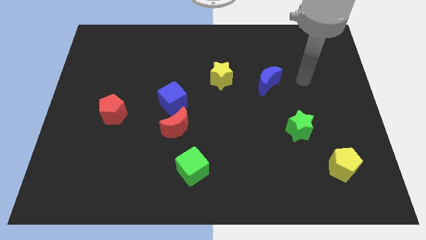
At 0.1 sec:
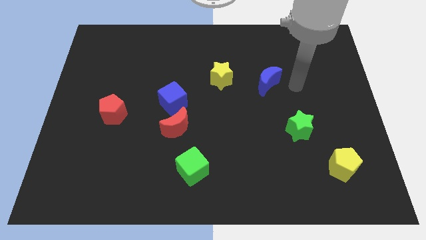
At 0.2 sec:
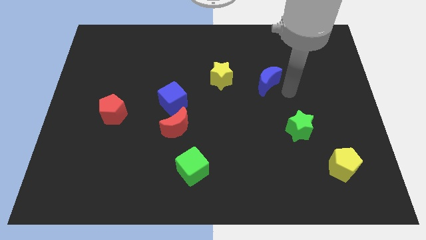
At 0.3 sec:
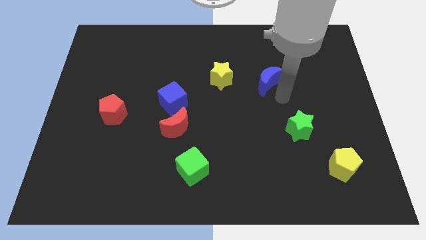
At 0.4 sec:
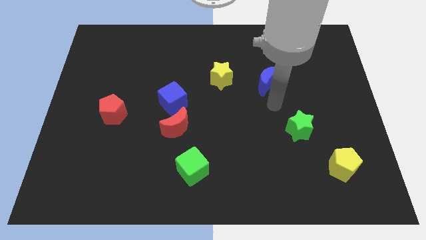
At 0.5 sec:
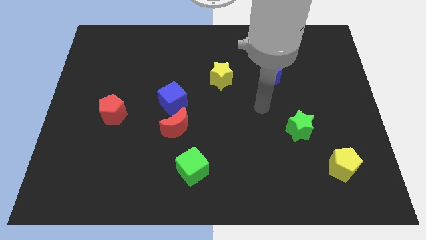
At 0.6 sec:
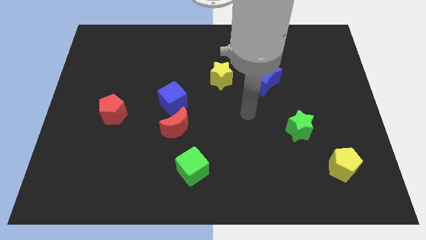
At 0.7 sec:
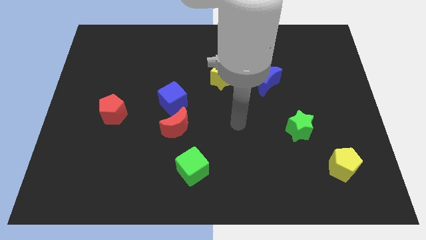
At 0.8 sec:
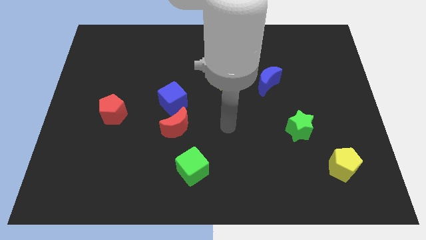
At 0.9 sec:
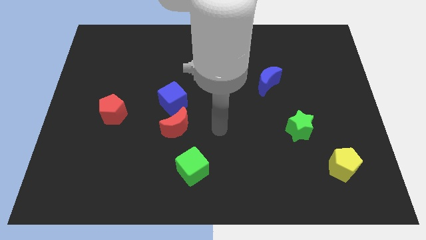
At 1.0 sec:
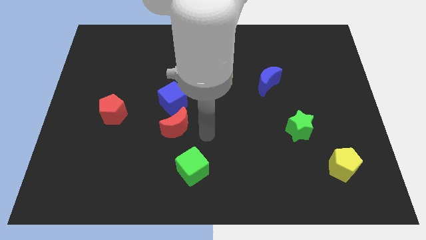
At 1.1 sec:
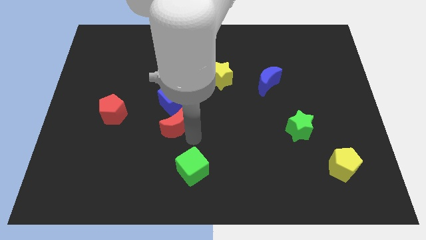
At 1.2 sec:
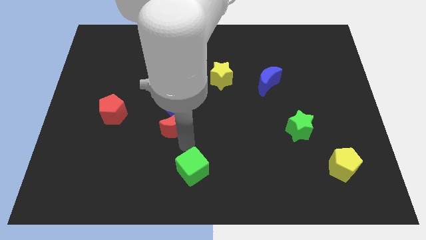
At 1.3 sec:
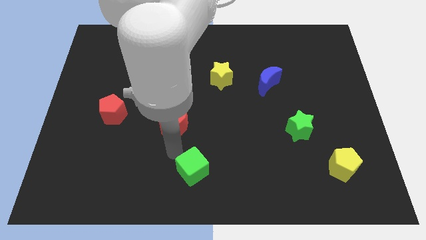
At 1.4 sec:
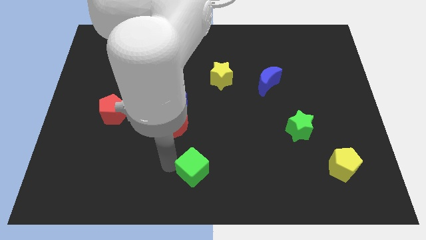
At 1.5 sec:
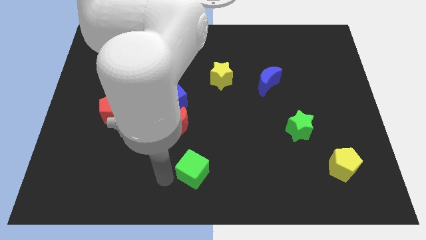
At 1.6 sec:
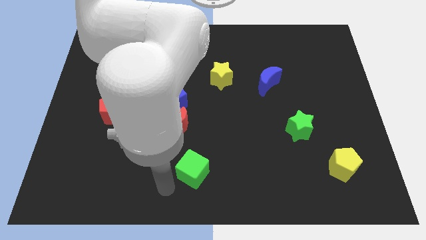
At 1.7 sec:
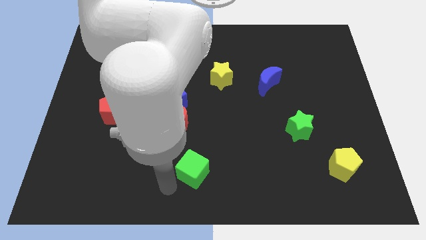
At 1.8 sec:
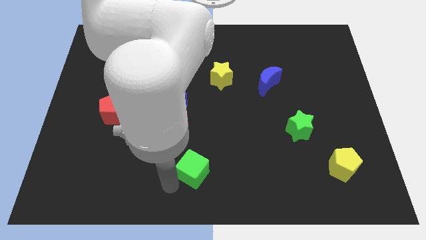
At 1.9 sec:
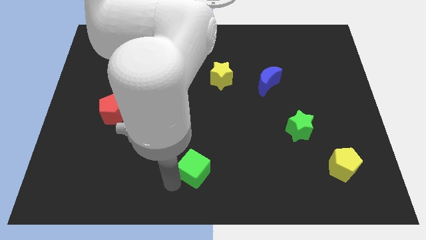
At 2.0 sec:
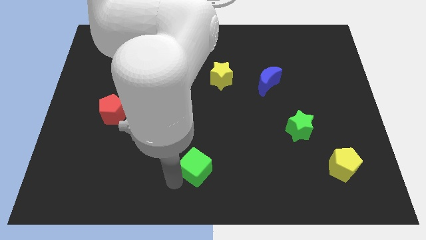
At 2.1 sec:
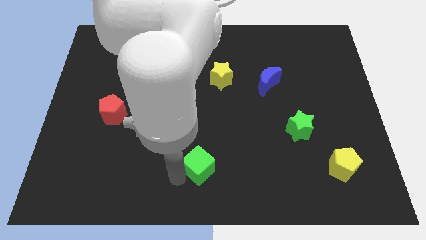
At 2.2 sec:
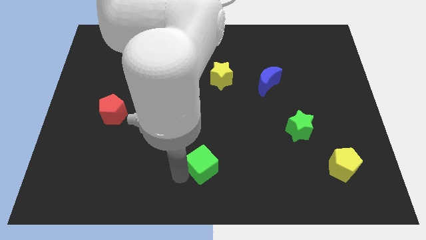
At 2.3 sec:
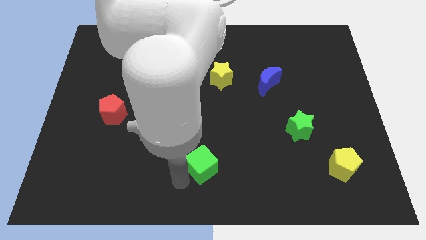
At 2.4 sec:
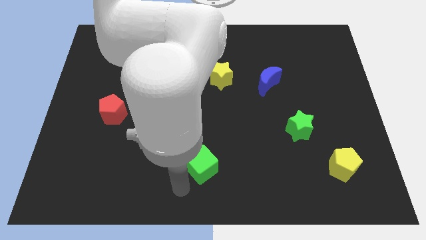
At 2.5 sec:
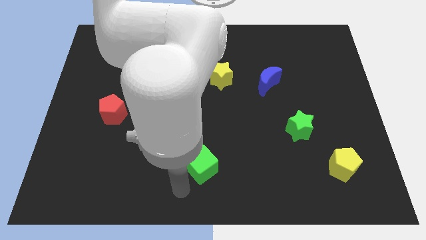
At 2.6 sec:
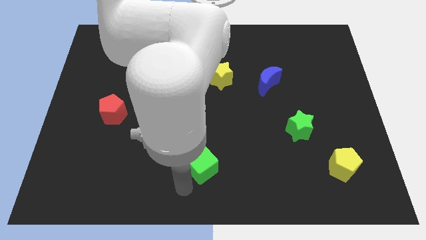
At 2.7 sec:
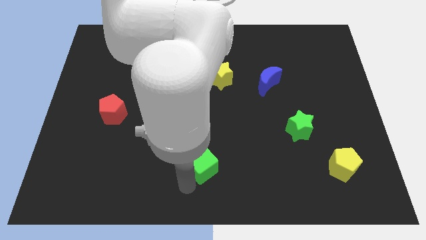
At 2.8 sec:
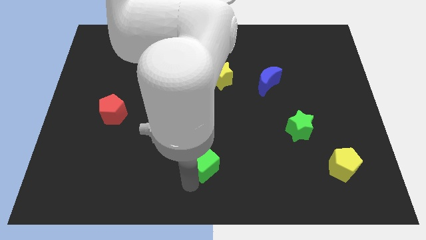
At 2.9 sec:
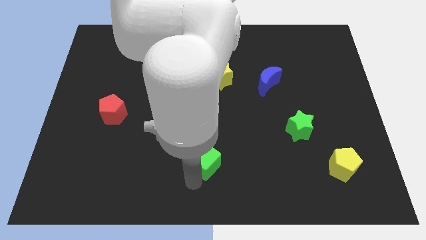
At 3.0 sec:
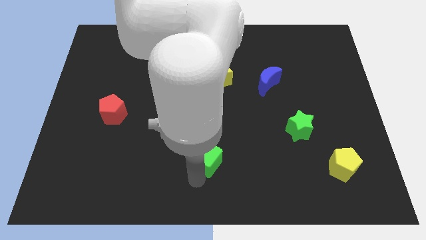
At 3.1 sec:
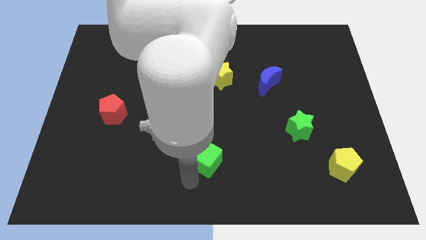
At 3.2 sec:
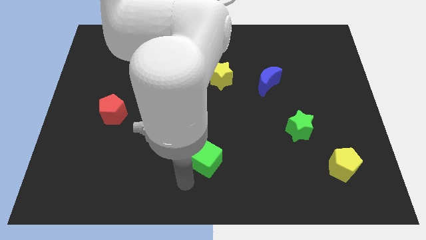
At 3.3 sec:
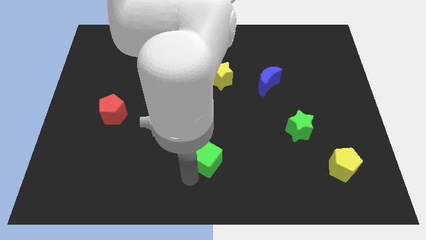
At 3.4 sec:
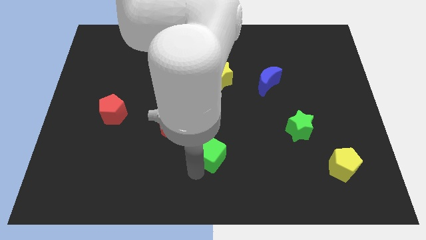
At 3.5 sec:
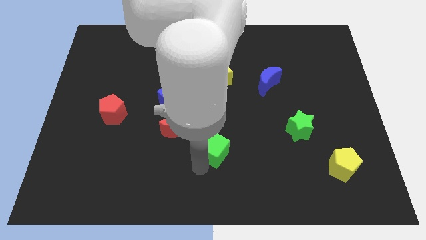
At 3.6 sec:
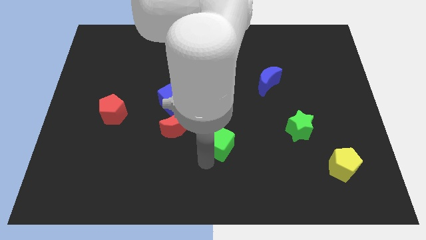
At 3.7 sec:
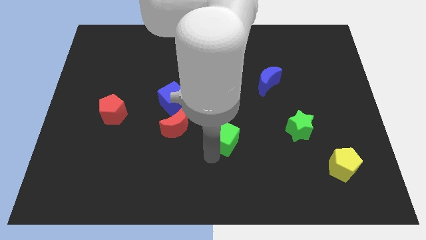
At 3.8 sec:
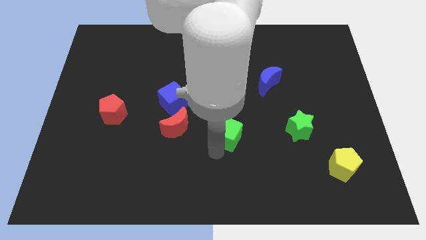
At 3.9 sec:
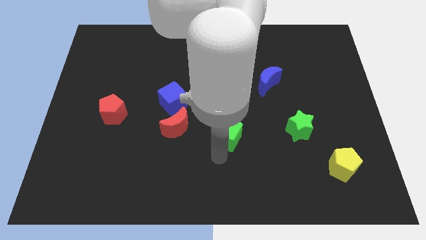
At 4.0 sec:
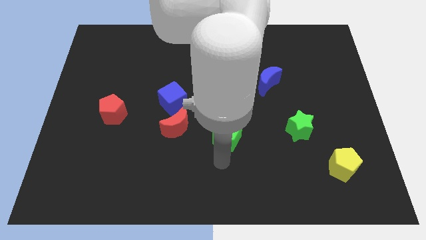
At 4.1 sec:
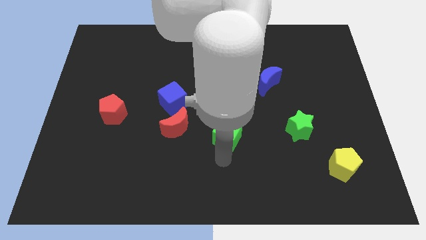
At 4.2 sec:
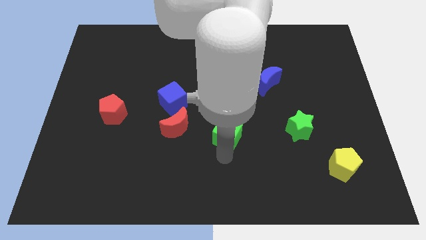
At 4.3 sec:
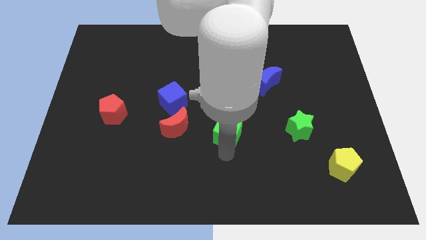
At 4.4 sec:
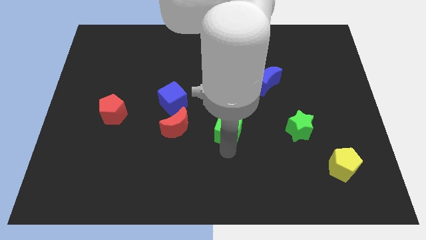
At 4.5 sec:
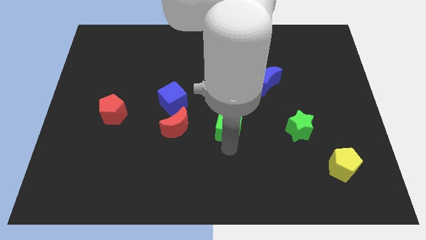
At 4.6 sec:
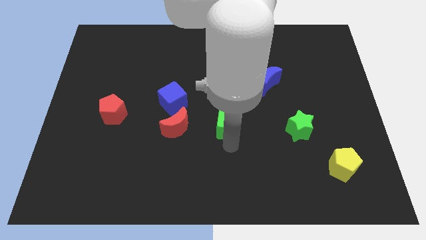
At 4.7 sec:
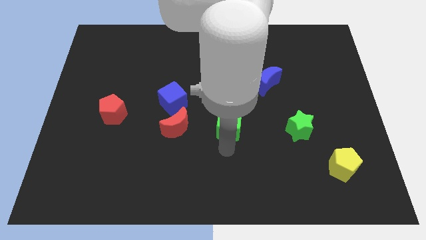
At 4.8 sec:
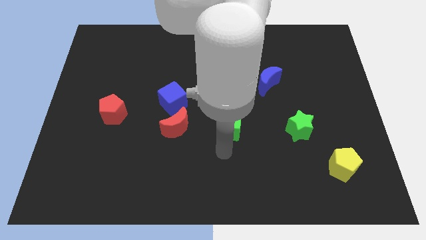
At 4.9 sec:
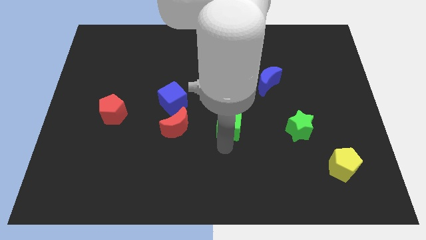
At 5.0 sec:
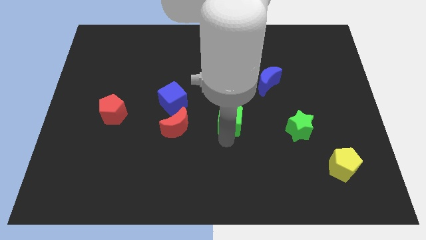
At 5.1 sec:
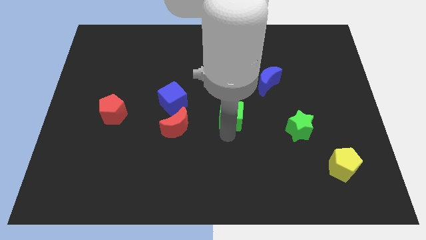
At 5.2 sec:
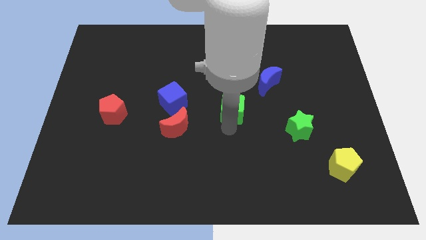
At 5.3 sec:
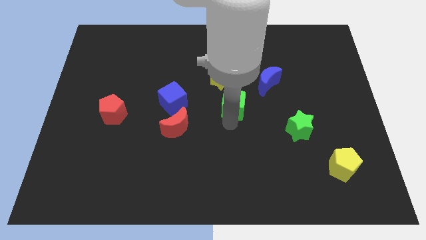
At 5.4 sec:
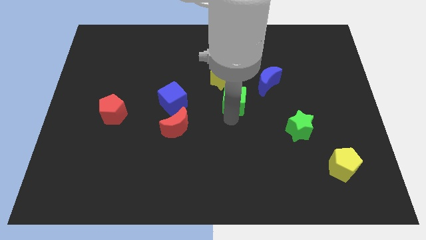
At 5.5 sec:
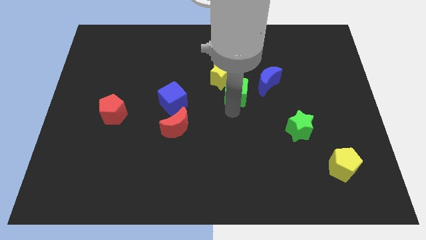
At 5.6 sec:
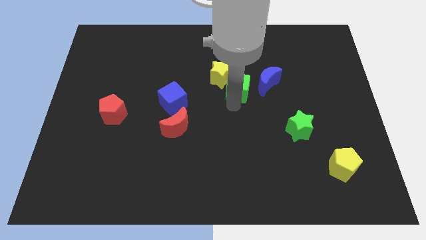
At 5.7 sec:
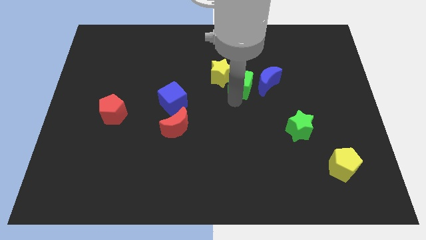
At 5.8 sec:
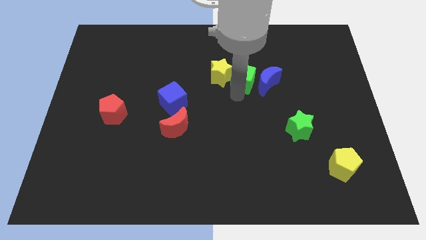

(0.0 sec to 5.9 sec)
move the green cube diagonally up and to the left of the blue moon

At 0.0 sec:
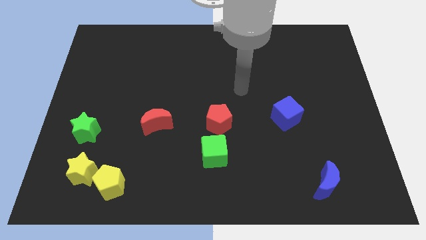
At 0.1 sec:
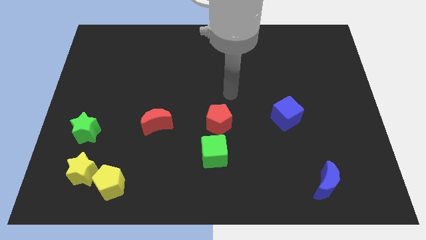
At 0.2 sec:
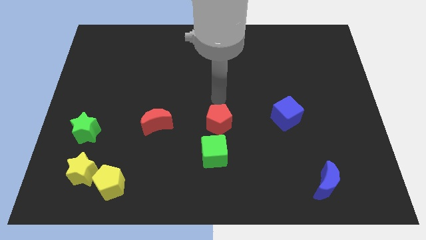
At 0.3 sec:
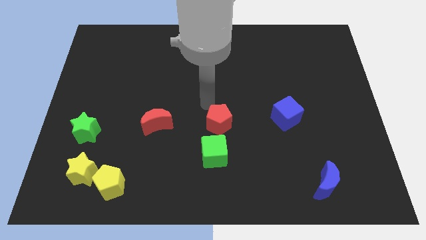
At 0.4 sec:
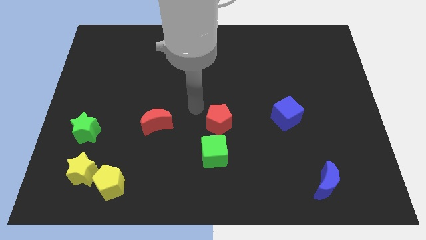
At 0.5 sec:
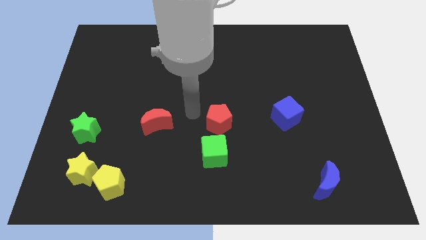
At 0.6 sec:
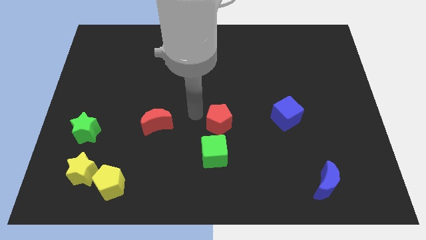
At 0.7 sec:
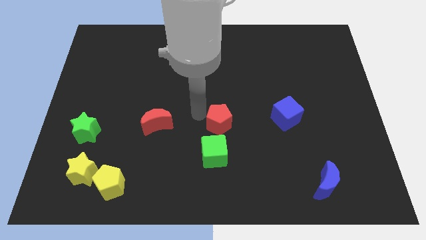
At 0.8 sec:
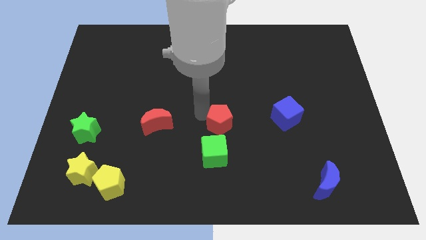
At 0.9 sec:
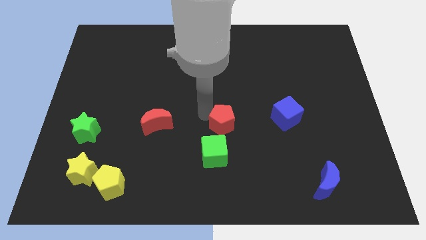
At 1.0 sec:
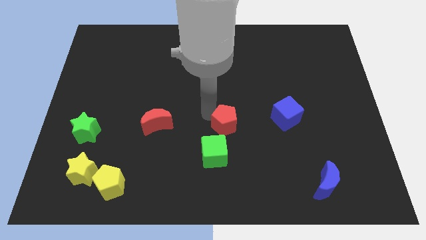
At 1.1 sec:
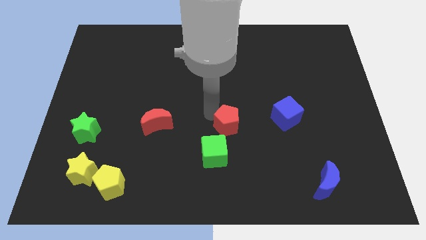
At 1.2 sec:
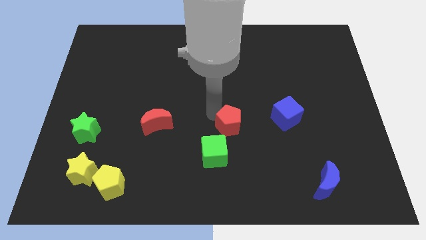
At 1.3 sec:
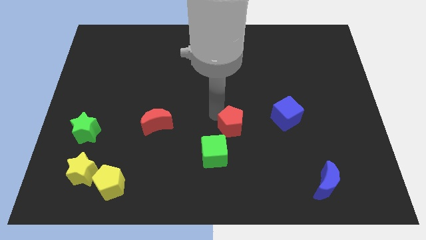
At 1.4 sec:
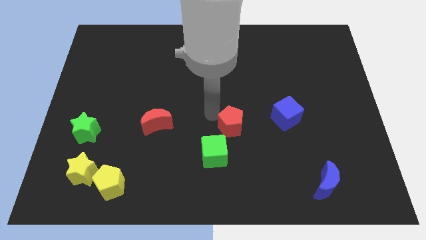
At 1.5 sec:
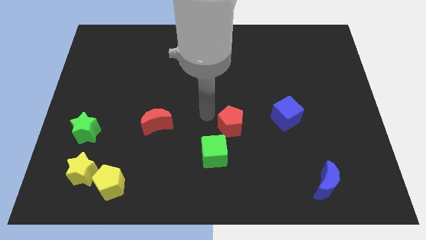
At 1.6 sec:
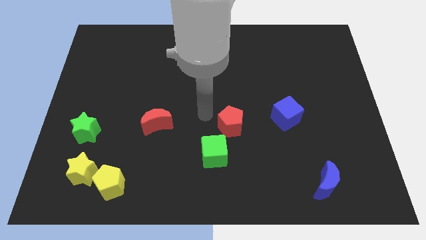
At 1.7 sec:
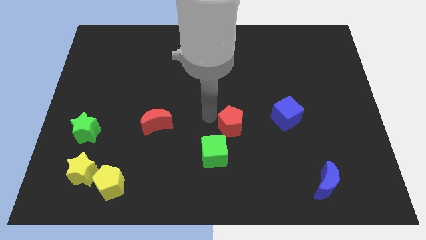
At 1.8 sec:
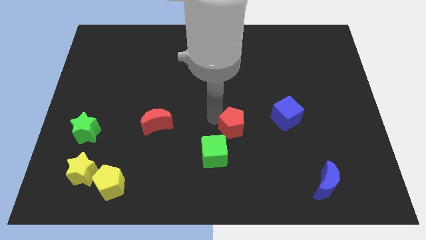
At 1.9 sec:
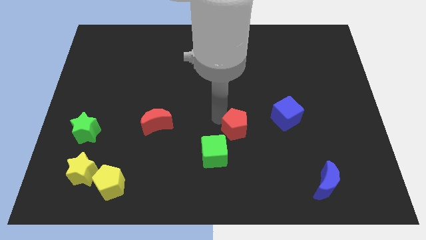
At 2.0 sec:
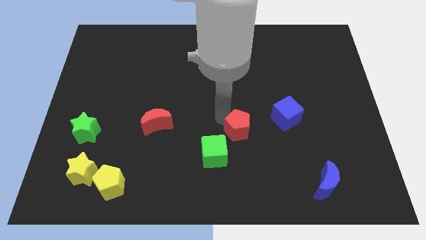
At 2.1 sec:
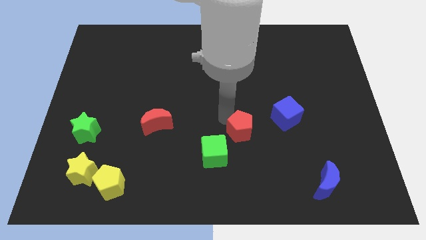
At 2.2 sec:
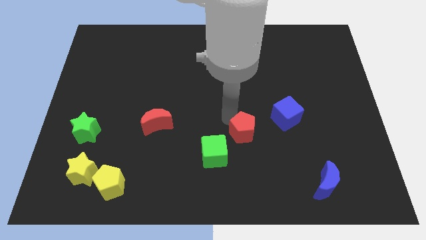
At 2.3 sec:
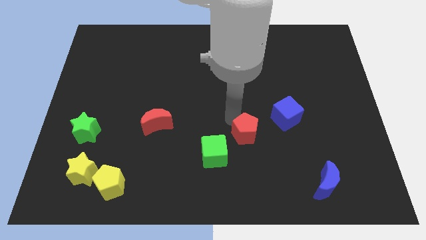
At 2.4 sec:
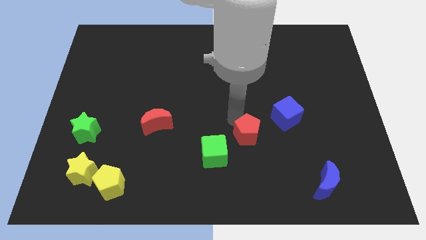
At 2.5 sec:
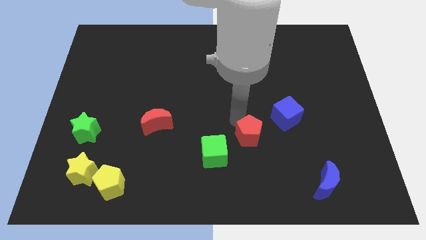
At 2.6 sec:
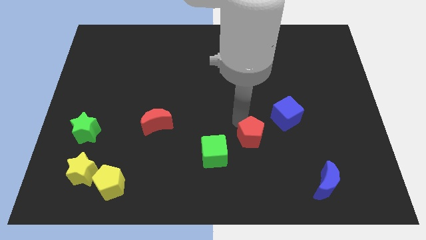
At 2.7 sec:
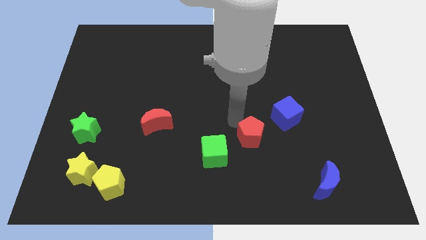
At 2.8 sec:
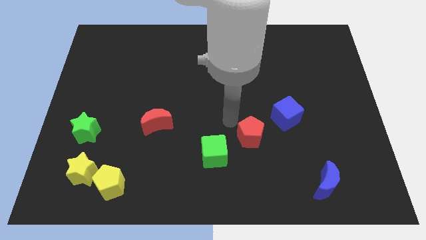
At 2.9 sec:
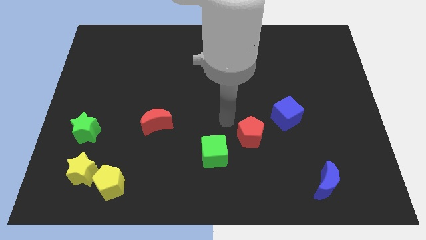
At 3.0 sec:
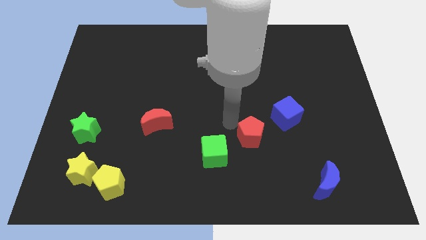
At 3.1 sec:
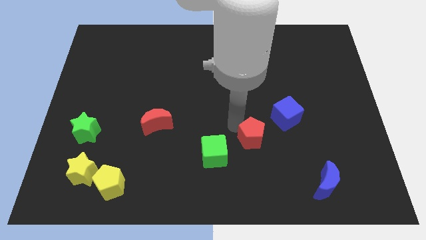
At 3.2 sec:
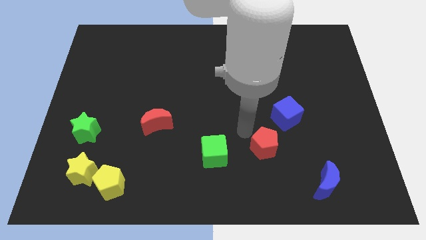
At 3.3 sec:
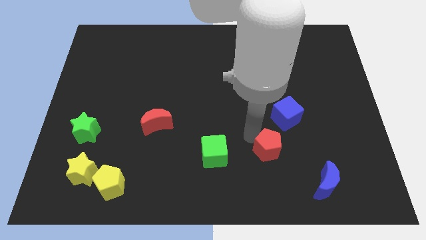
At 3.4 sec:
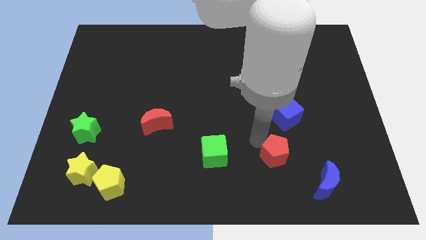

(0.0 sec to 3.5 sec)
push the red pentagon to the top left of the blue moon
